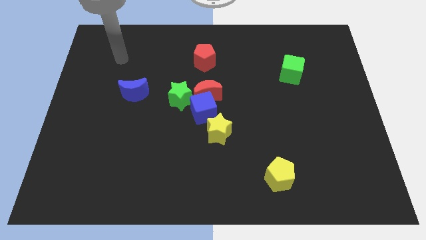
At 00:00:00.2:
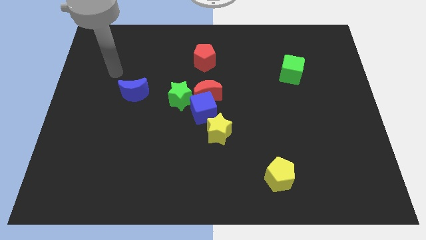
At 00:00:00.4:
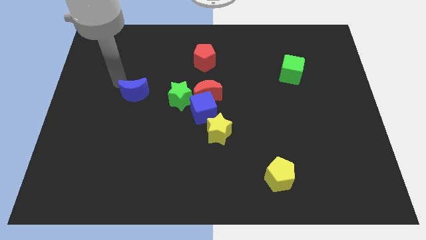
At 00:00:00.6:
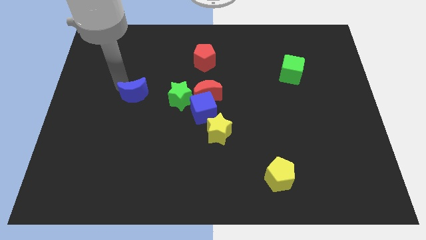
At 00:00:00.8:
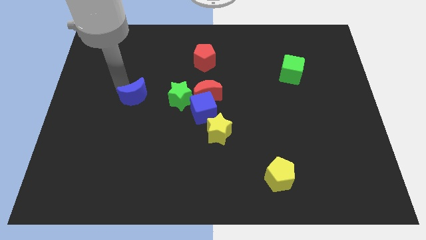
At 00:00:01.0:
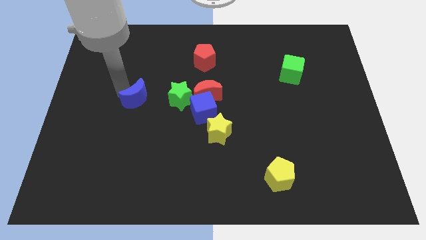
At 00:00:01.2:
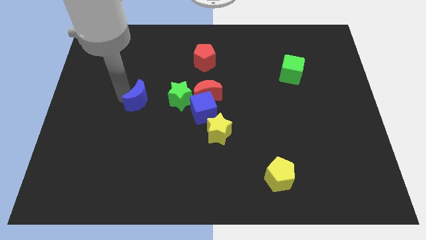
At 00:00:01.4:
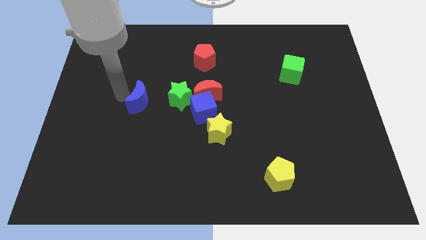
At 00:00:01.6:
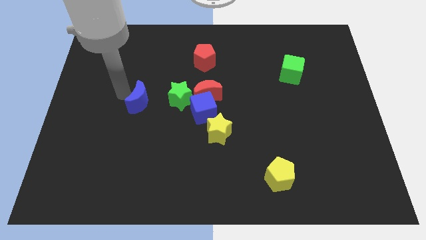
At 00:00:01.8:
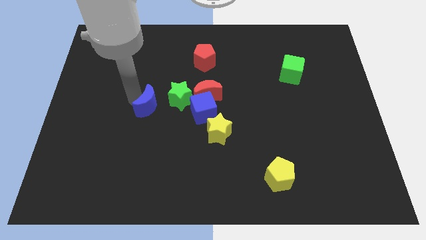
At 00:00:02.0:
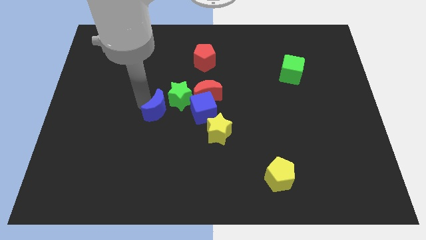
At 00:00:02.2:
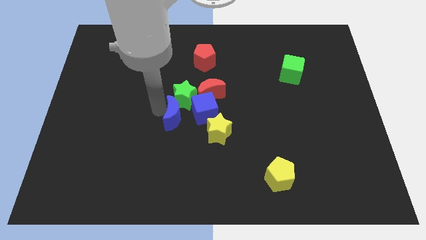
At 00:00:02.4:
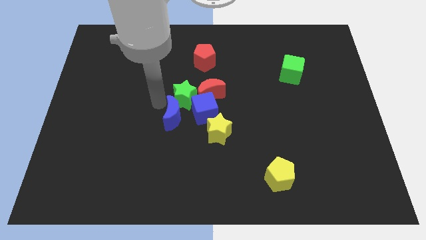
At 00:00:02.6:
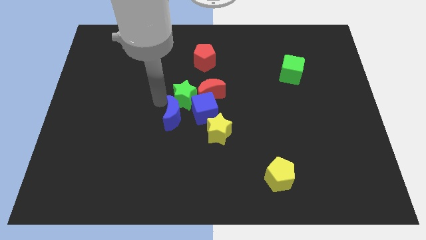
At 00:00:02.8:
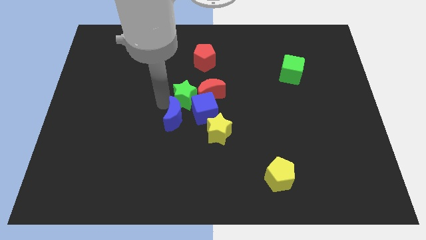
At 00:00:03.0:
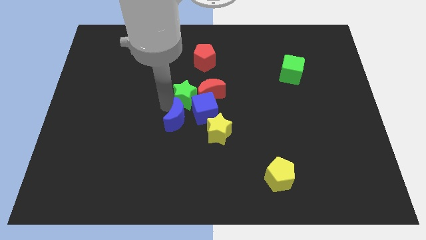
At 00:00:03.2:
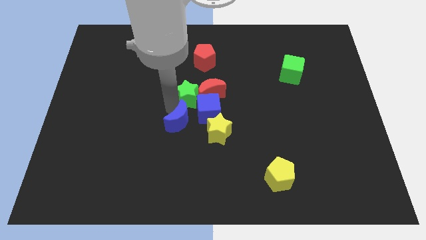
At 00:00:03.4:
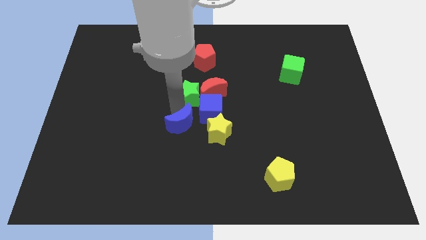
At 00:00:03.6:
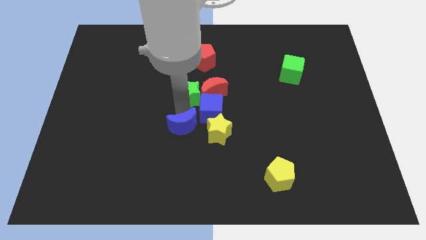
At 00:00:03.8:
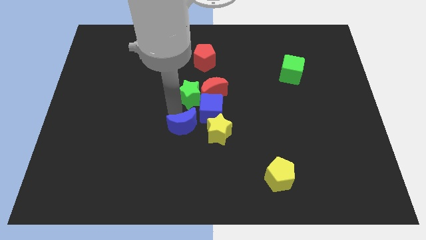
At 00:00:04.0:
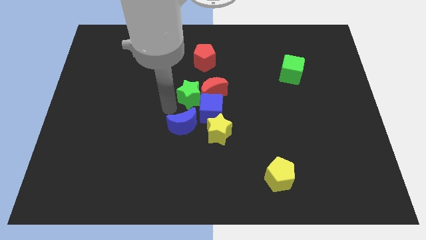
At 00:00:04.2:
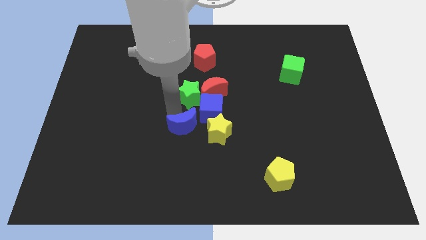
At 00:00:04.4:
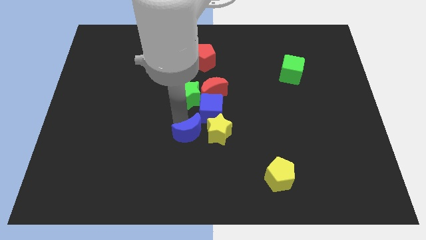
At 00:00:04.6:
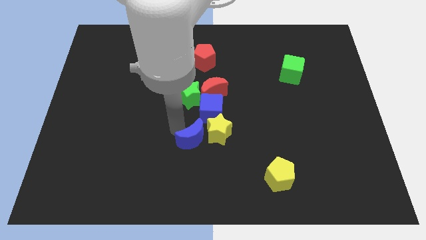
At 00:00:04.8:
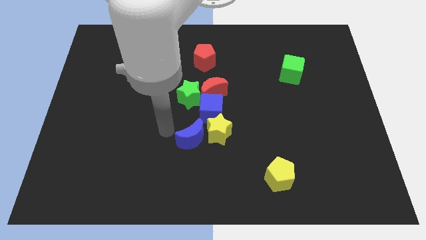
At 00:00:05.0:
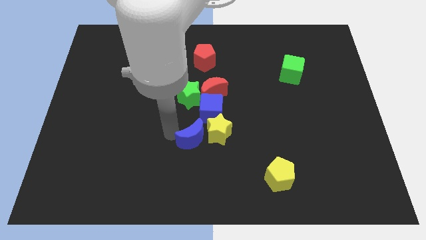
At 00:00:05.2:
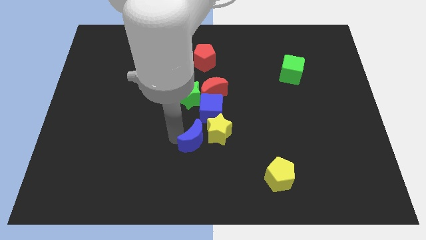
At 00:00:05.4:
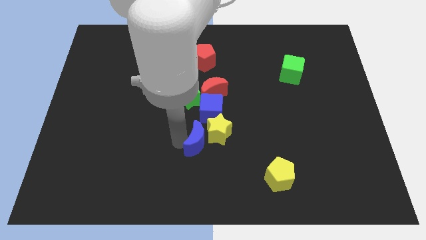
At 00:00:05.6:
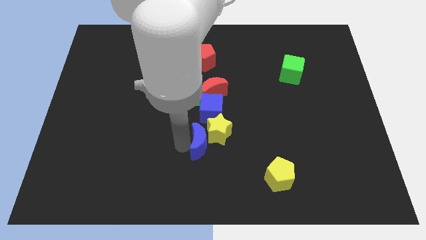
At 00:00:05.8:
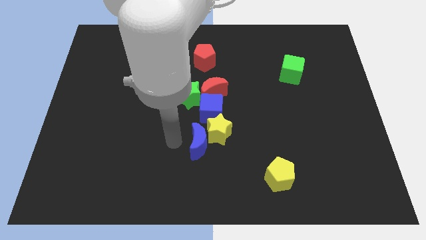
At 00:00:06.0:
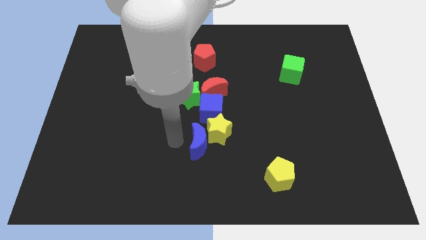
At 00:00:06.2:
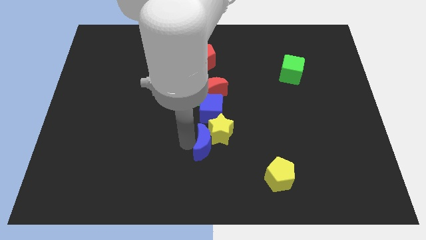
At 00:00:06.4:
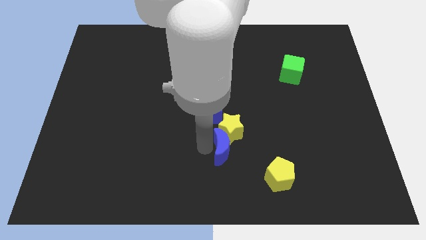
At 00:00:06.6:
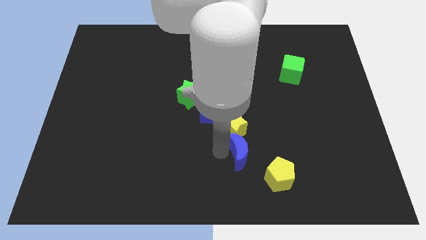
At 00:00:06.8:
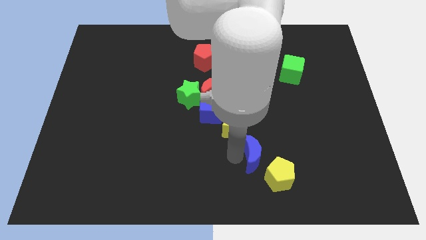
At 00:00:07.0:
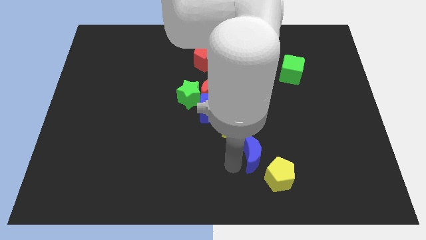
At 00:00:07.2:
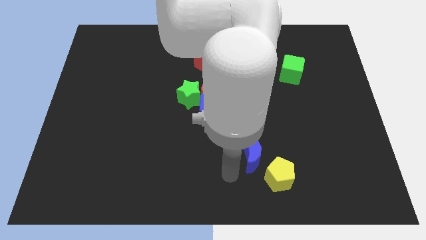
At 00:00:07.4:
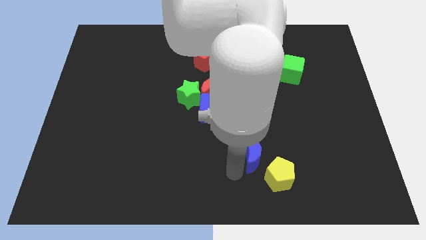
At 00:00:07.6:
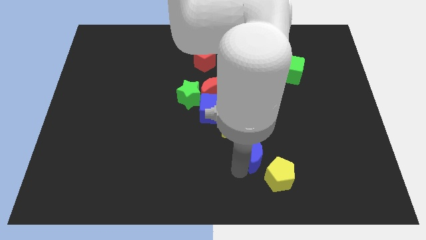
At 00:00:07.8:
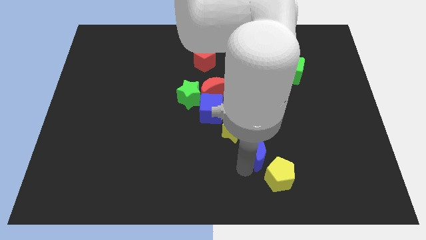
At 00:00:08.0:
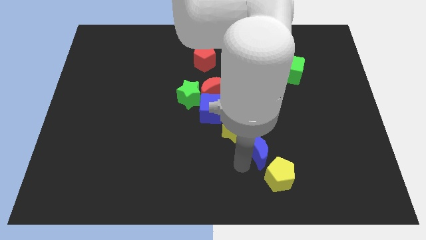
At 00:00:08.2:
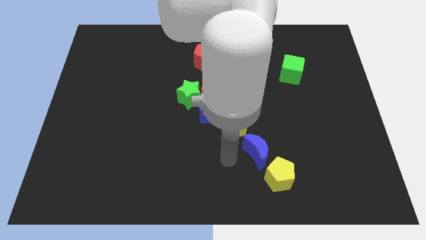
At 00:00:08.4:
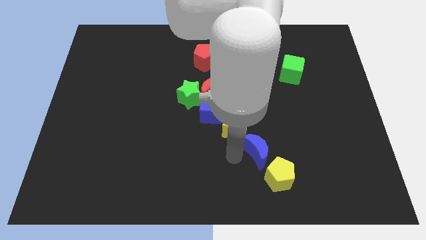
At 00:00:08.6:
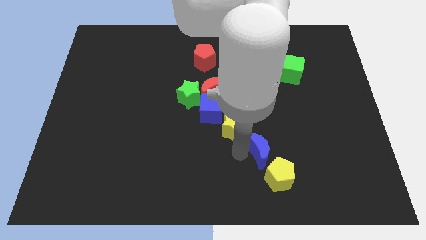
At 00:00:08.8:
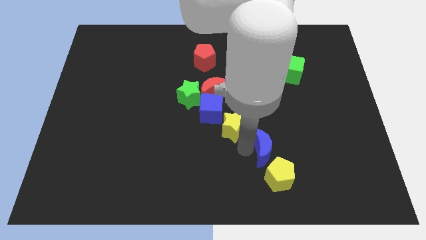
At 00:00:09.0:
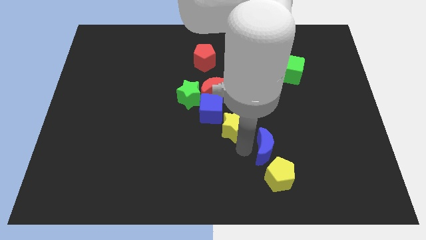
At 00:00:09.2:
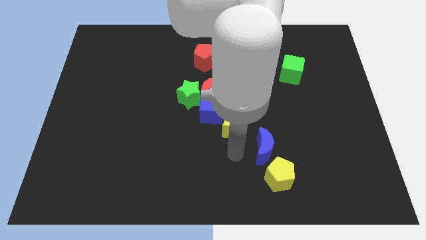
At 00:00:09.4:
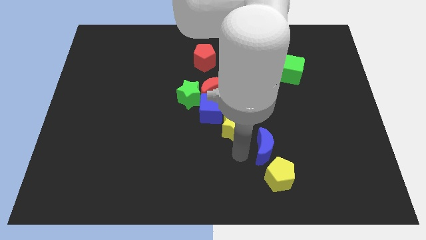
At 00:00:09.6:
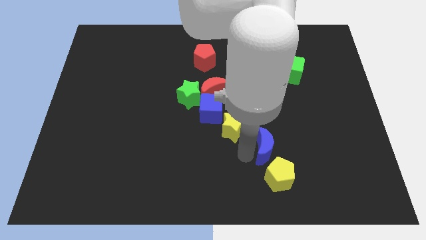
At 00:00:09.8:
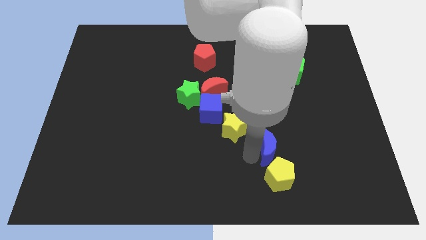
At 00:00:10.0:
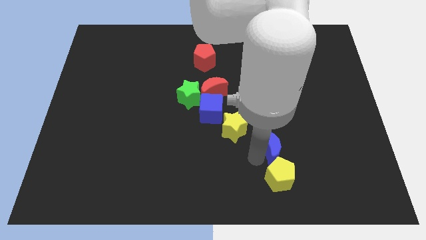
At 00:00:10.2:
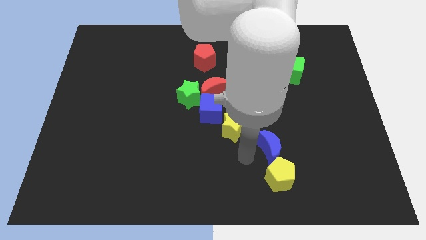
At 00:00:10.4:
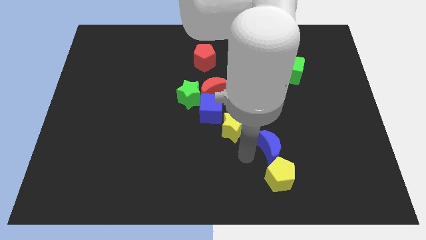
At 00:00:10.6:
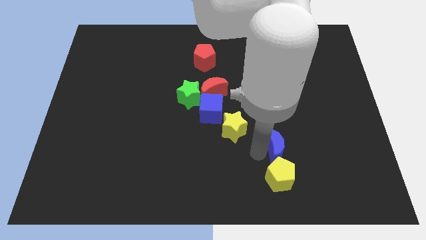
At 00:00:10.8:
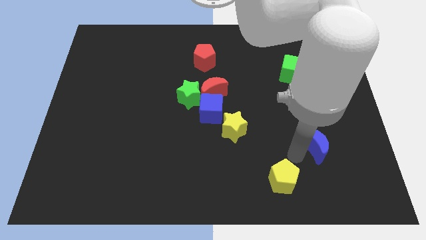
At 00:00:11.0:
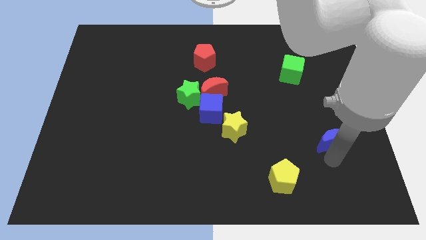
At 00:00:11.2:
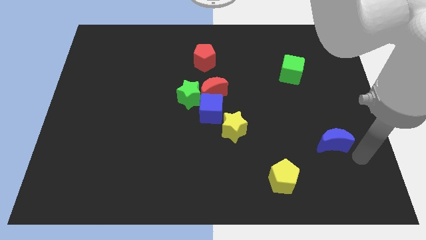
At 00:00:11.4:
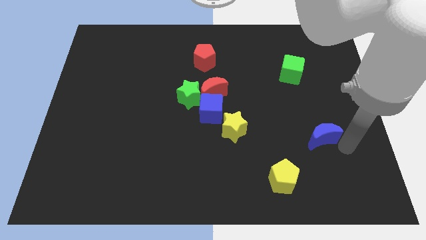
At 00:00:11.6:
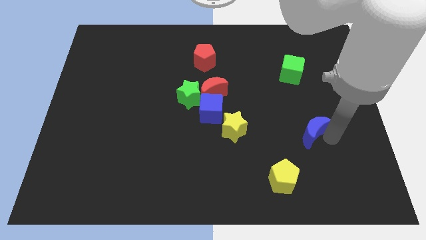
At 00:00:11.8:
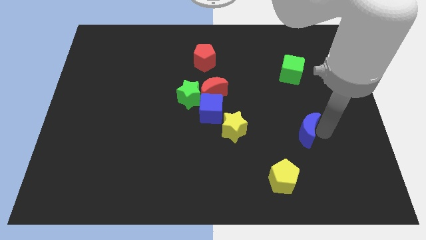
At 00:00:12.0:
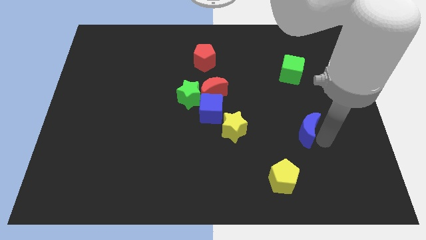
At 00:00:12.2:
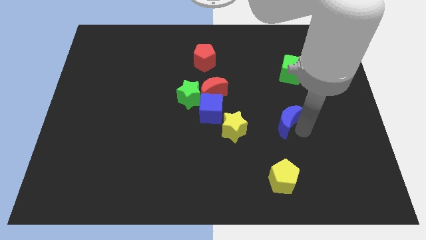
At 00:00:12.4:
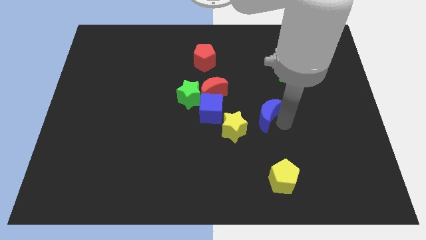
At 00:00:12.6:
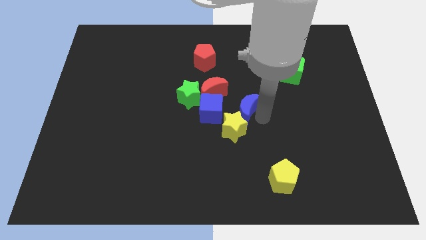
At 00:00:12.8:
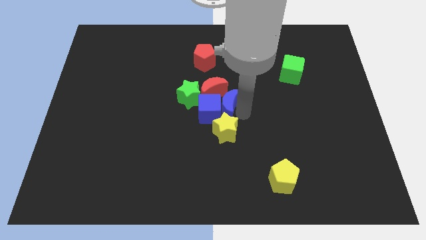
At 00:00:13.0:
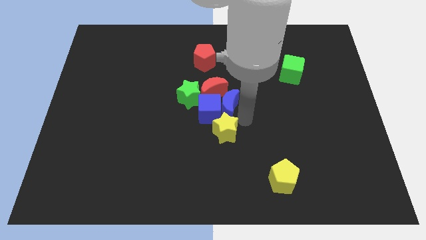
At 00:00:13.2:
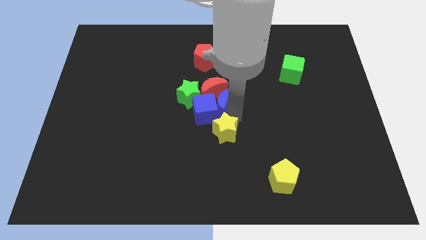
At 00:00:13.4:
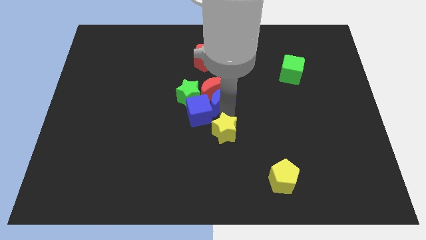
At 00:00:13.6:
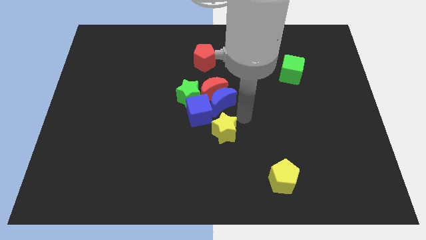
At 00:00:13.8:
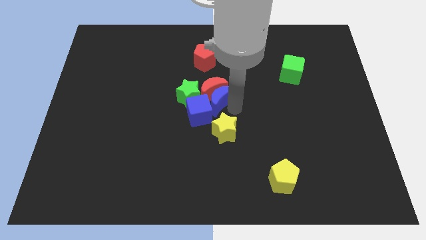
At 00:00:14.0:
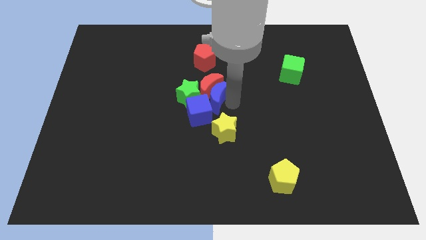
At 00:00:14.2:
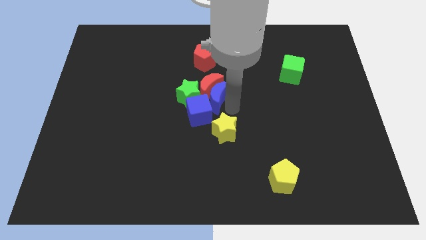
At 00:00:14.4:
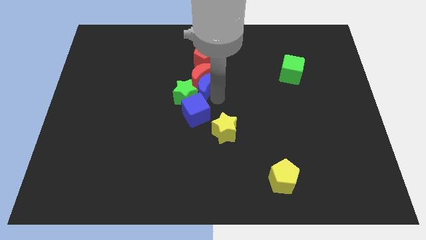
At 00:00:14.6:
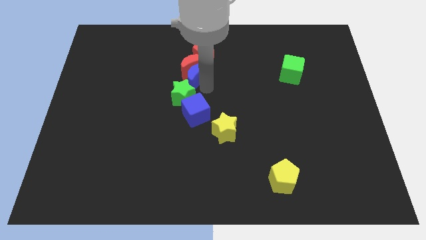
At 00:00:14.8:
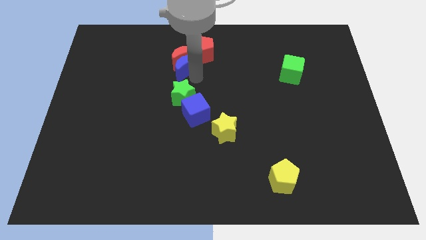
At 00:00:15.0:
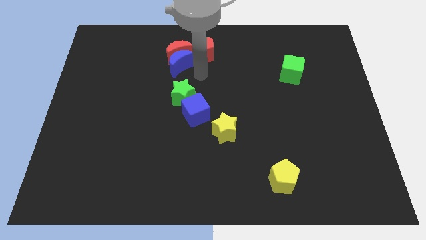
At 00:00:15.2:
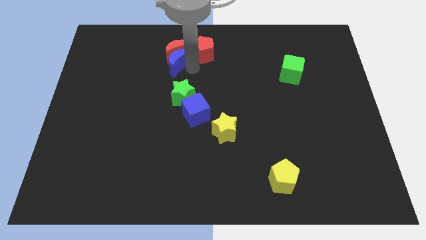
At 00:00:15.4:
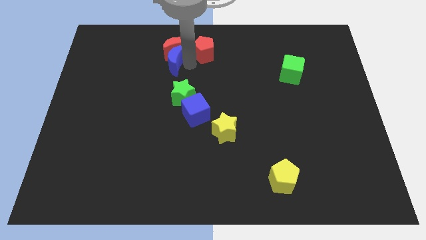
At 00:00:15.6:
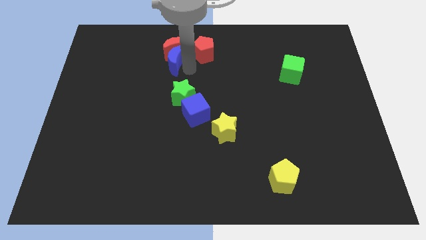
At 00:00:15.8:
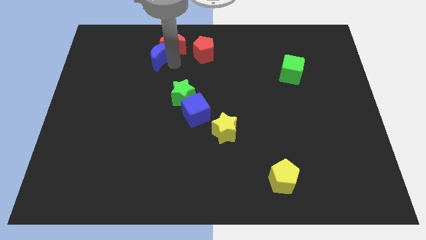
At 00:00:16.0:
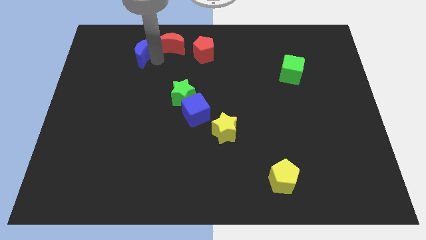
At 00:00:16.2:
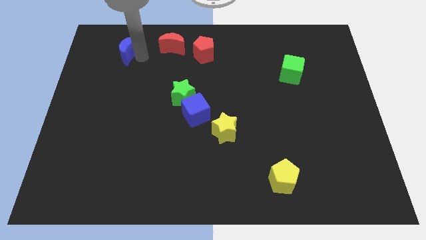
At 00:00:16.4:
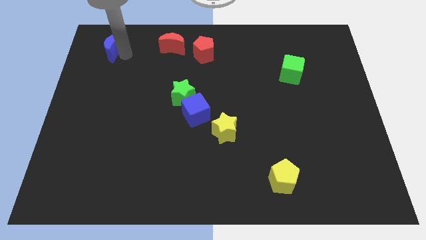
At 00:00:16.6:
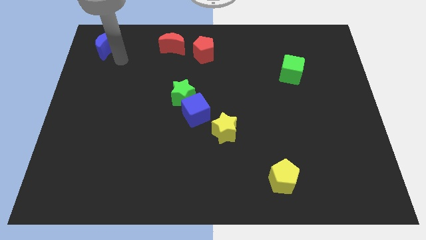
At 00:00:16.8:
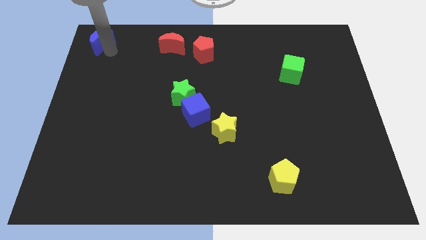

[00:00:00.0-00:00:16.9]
move the blue moon to the upper left corner
